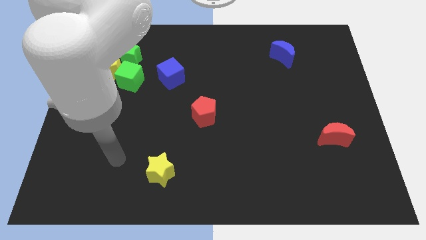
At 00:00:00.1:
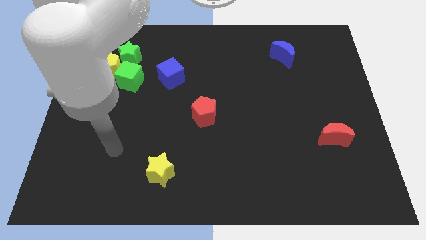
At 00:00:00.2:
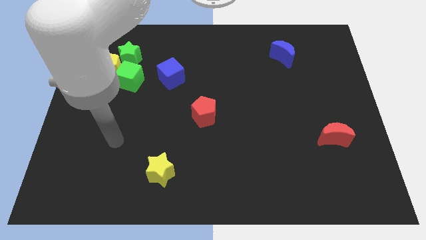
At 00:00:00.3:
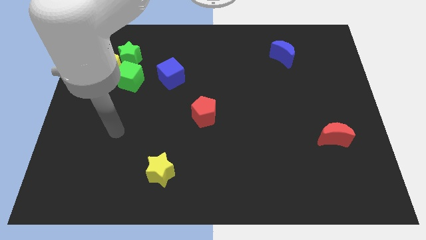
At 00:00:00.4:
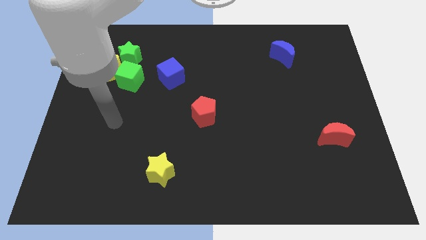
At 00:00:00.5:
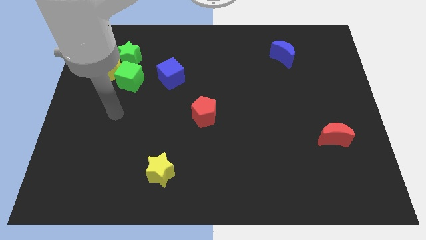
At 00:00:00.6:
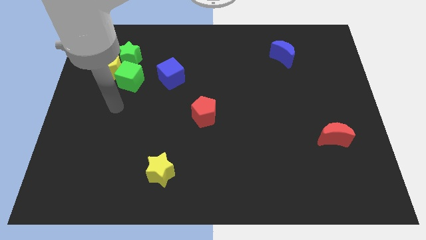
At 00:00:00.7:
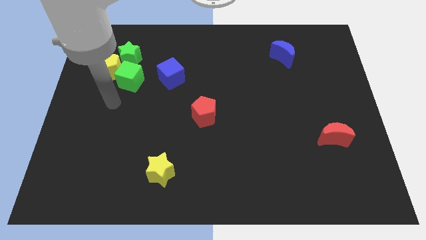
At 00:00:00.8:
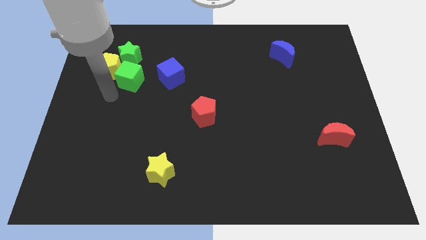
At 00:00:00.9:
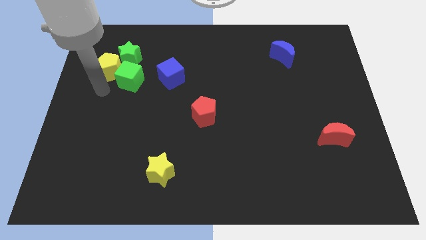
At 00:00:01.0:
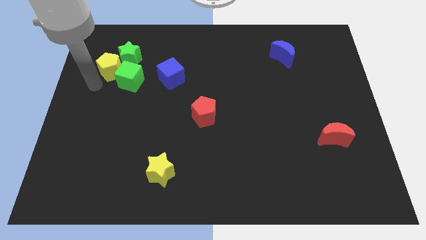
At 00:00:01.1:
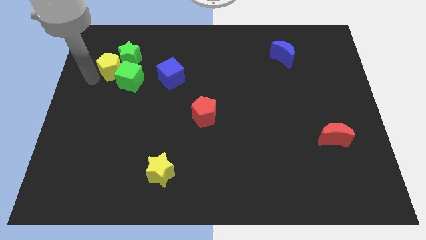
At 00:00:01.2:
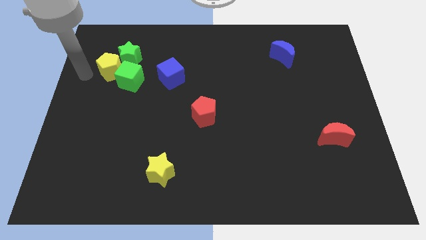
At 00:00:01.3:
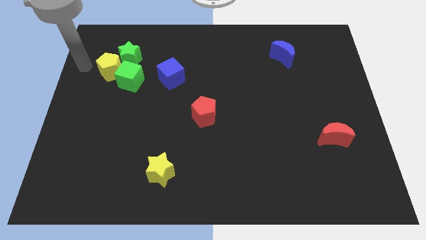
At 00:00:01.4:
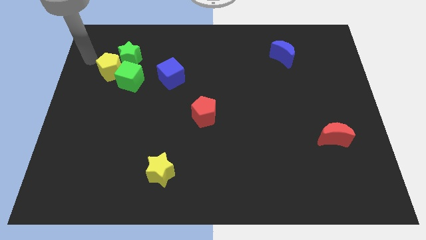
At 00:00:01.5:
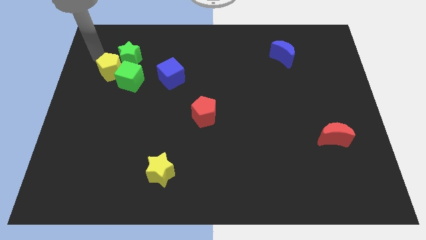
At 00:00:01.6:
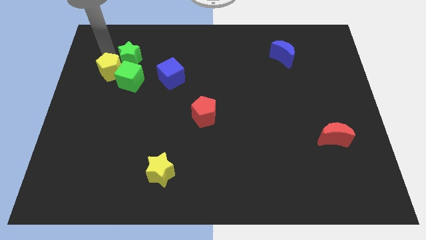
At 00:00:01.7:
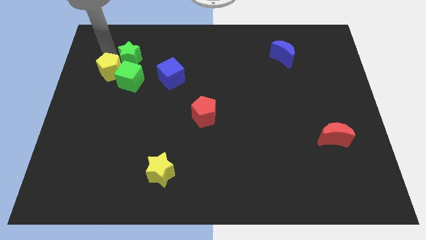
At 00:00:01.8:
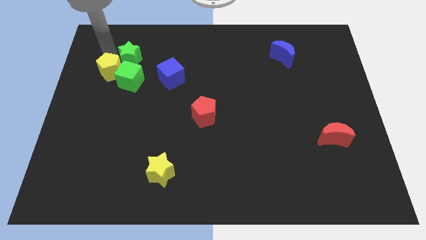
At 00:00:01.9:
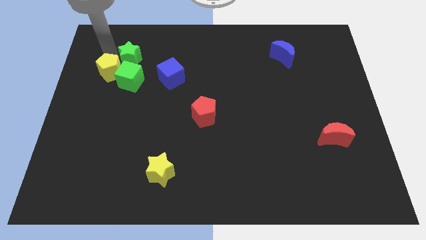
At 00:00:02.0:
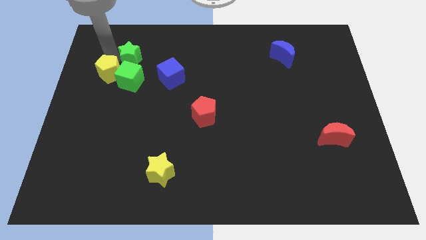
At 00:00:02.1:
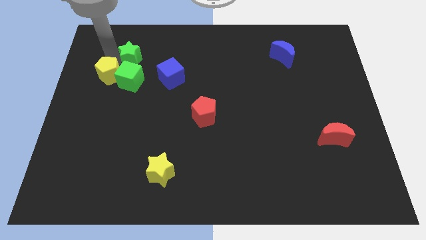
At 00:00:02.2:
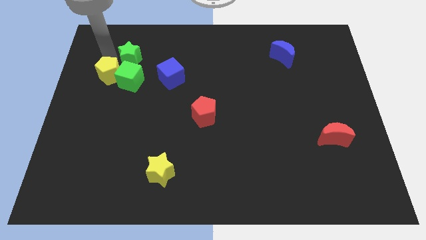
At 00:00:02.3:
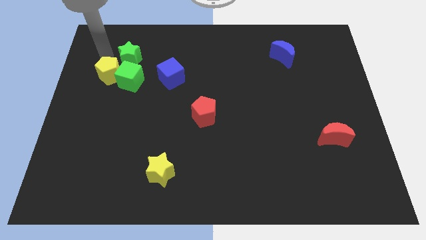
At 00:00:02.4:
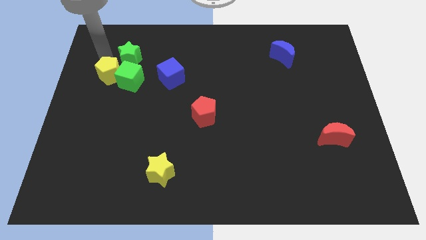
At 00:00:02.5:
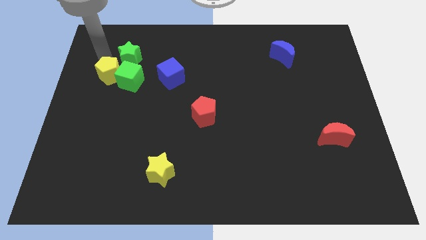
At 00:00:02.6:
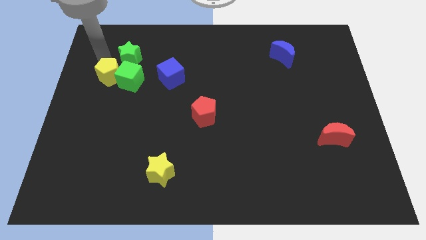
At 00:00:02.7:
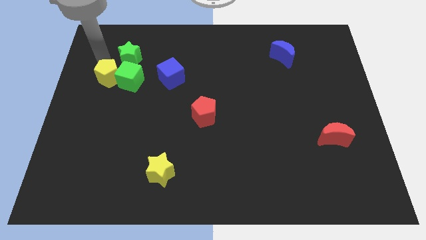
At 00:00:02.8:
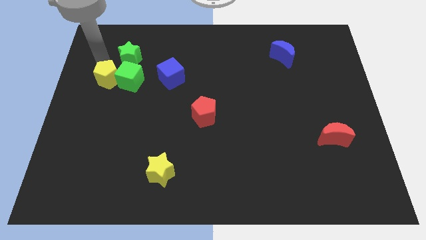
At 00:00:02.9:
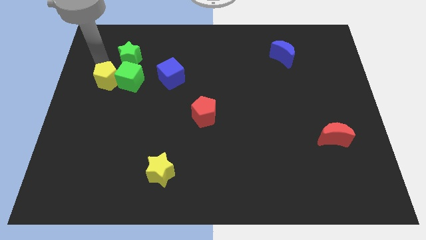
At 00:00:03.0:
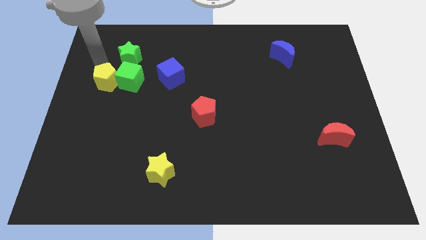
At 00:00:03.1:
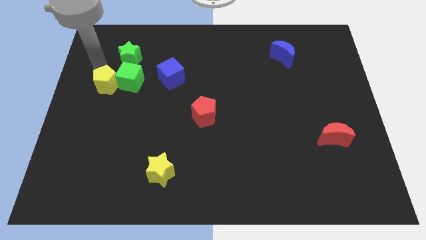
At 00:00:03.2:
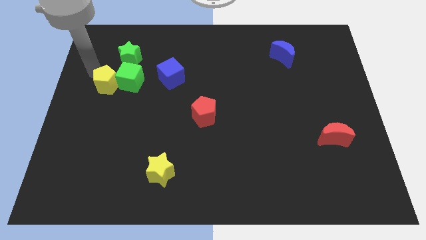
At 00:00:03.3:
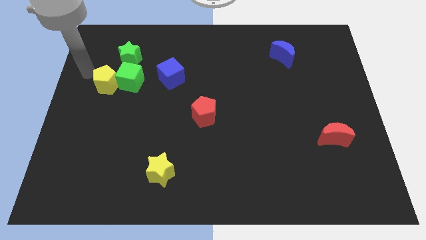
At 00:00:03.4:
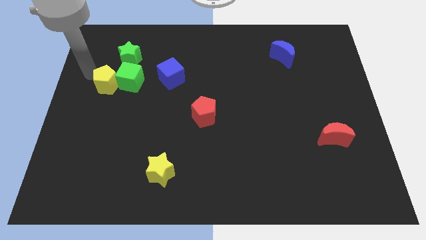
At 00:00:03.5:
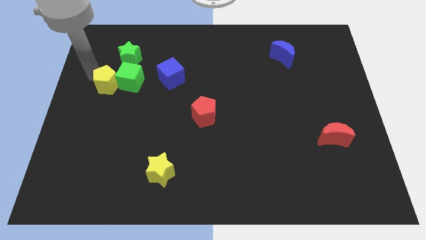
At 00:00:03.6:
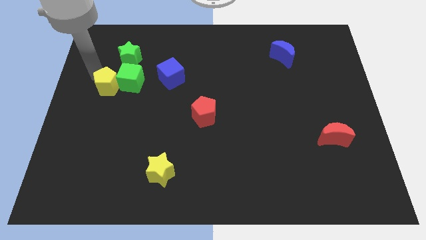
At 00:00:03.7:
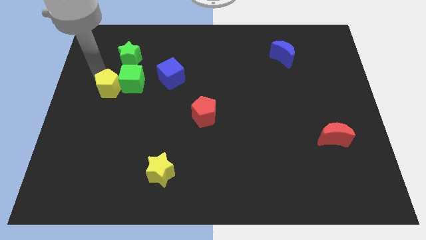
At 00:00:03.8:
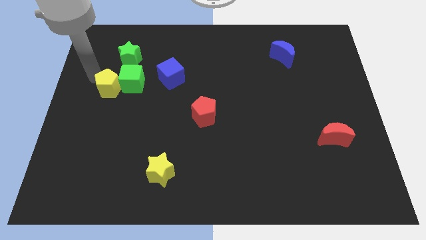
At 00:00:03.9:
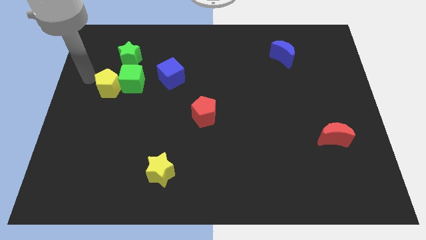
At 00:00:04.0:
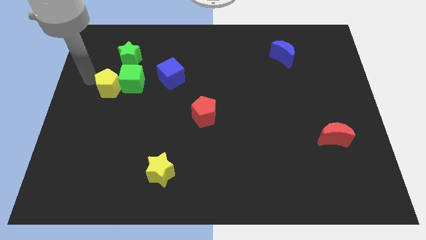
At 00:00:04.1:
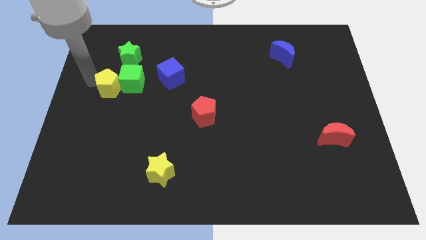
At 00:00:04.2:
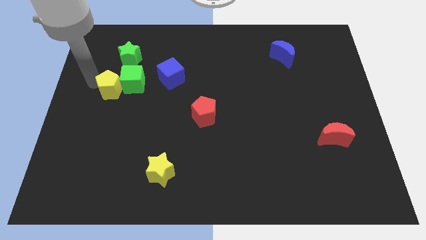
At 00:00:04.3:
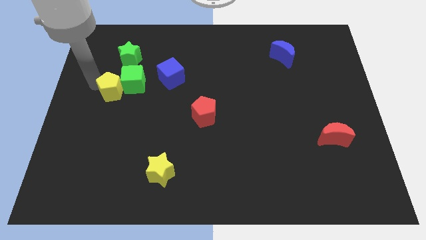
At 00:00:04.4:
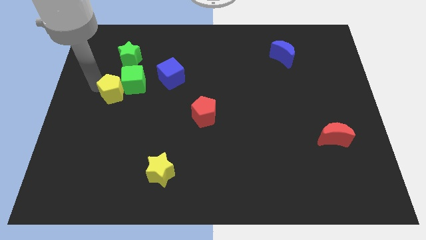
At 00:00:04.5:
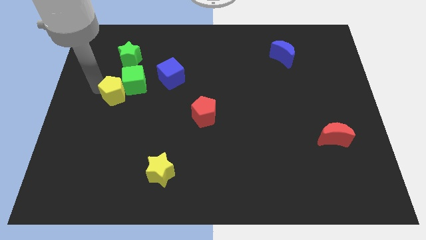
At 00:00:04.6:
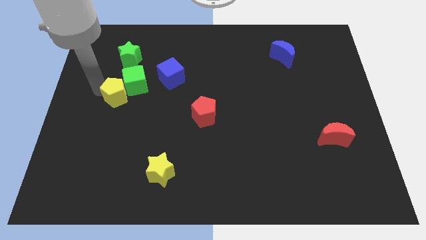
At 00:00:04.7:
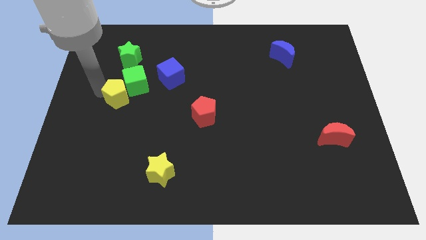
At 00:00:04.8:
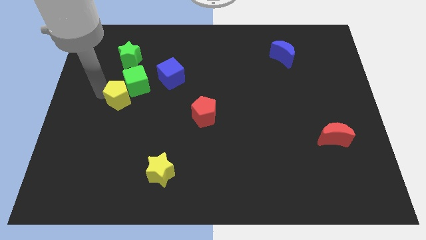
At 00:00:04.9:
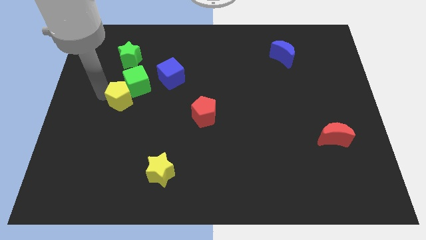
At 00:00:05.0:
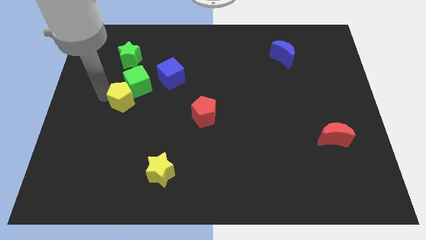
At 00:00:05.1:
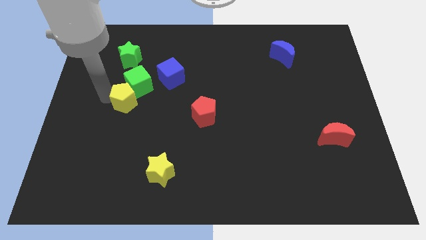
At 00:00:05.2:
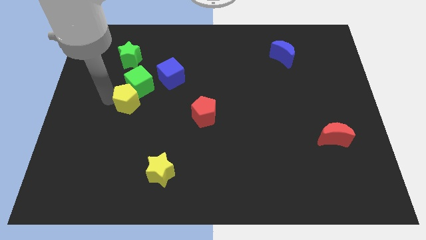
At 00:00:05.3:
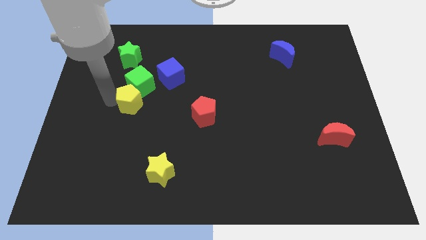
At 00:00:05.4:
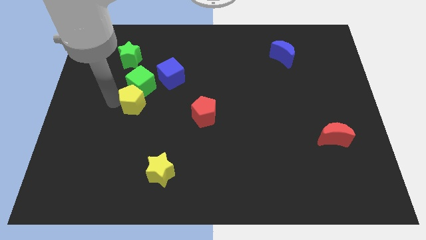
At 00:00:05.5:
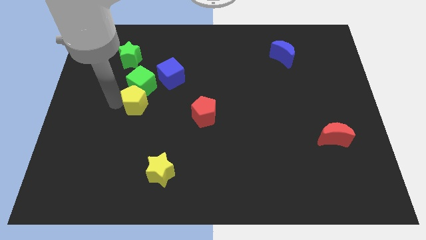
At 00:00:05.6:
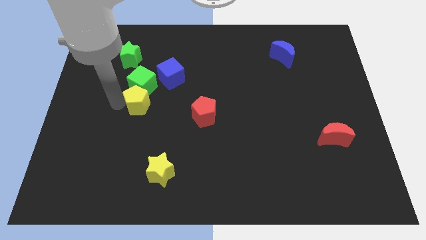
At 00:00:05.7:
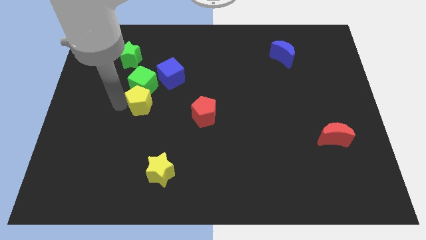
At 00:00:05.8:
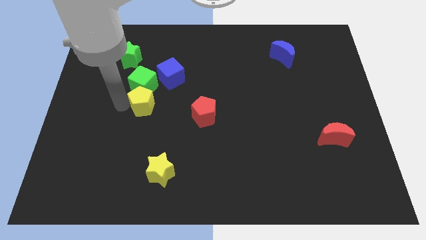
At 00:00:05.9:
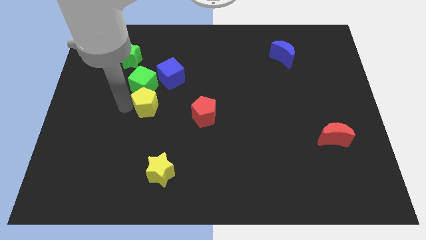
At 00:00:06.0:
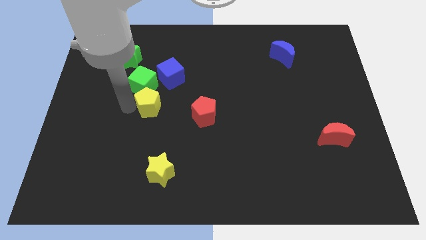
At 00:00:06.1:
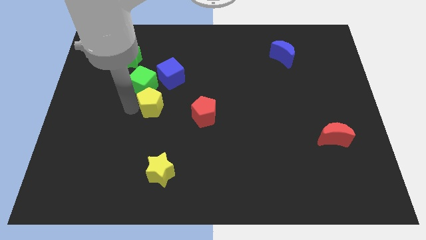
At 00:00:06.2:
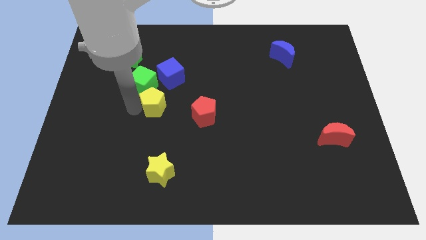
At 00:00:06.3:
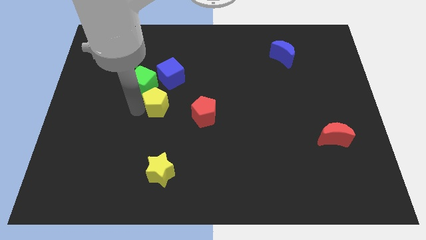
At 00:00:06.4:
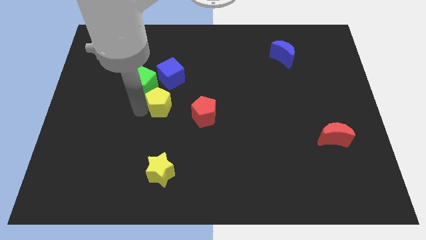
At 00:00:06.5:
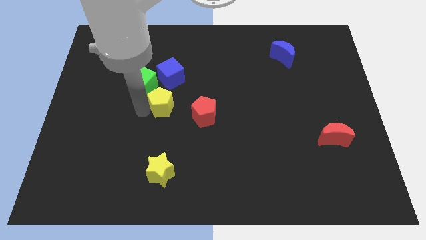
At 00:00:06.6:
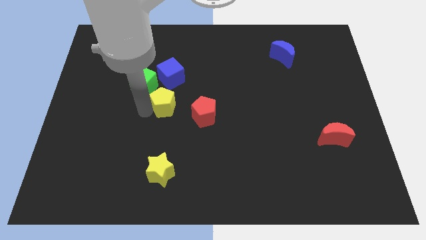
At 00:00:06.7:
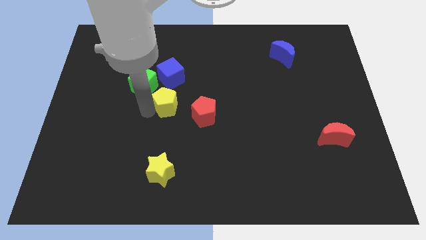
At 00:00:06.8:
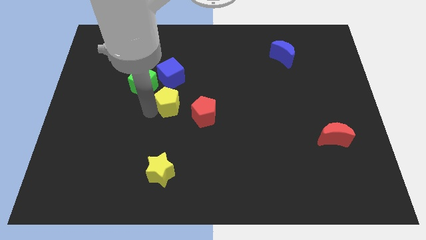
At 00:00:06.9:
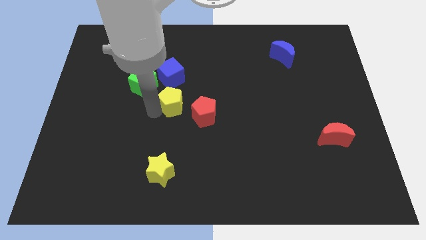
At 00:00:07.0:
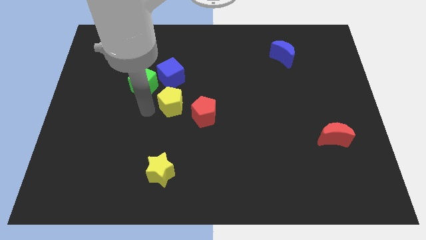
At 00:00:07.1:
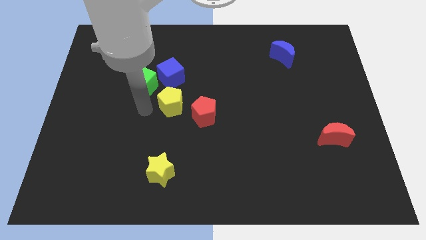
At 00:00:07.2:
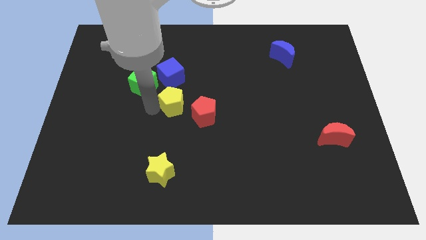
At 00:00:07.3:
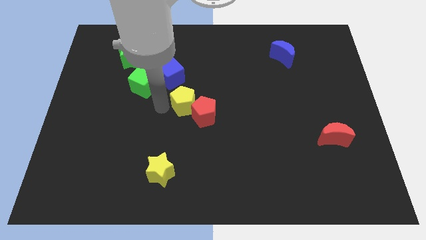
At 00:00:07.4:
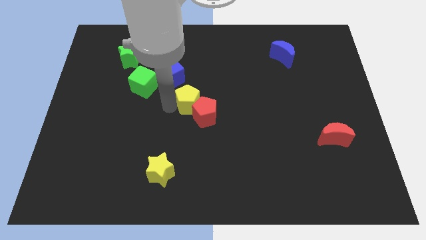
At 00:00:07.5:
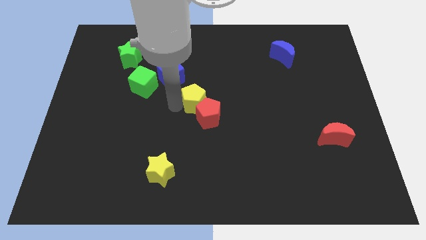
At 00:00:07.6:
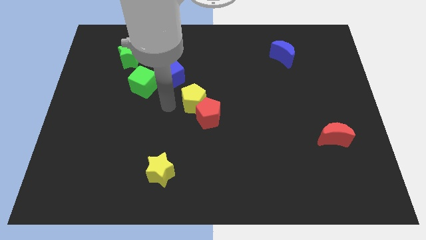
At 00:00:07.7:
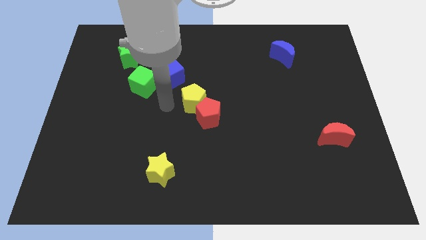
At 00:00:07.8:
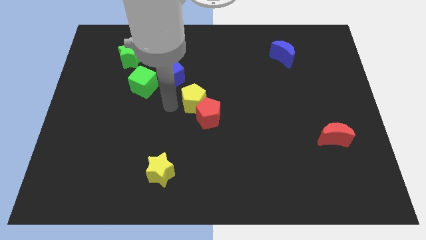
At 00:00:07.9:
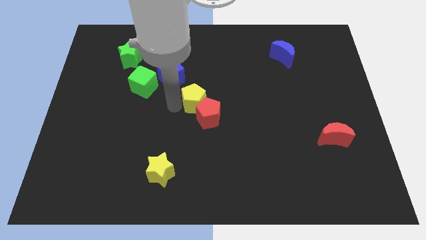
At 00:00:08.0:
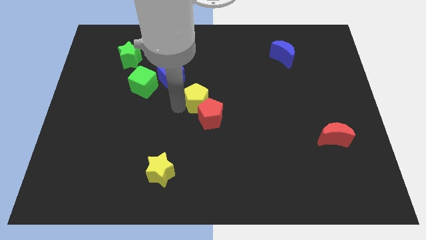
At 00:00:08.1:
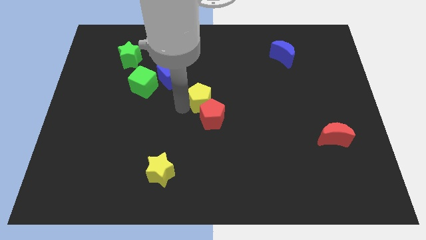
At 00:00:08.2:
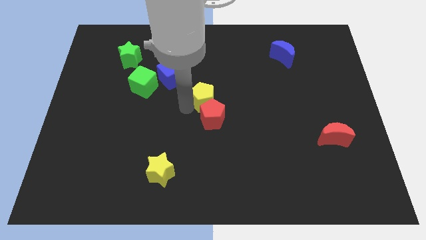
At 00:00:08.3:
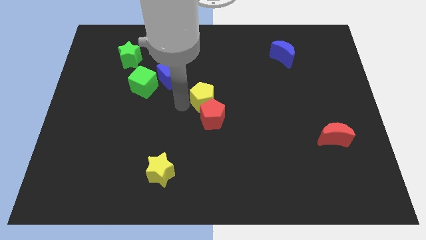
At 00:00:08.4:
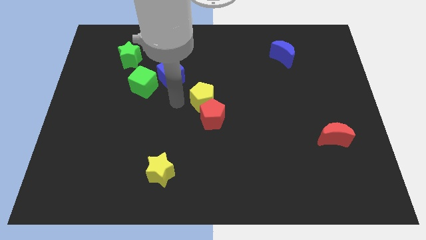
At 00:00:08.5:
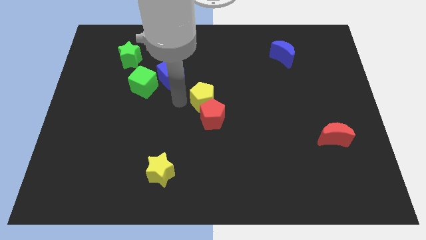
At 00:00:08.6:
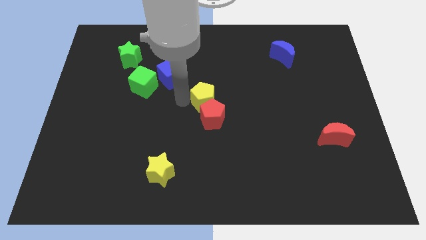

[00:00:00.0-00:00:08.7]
slide the yellow pentagon to the top right side of the red pentagon
